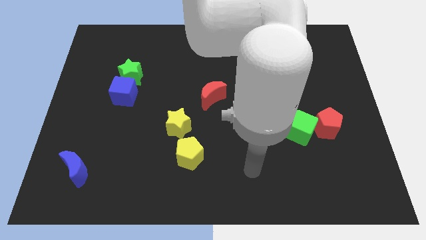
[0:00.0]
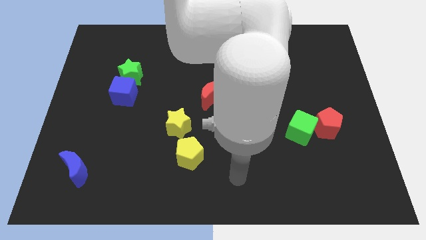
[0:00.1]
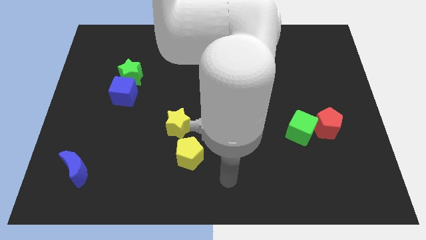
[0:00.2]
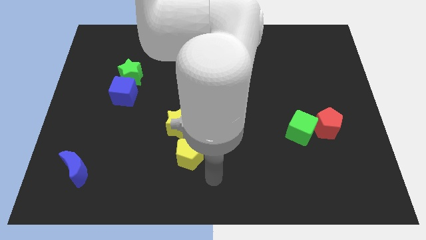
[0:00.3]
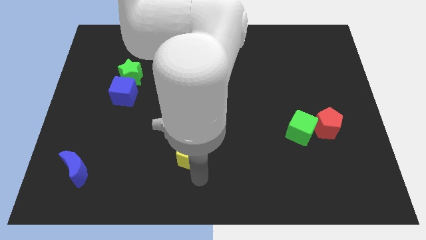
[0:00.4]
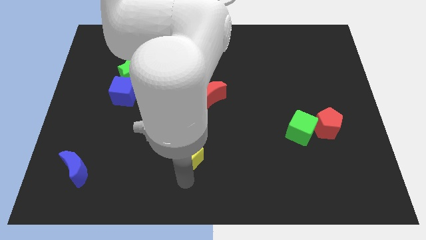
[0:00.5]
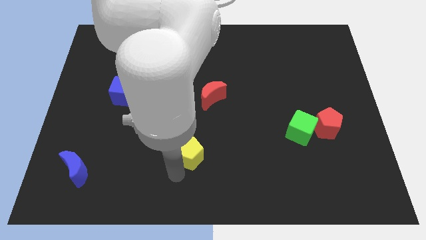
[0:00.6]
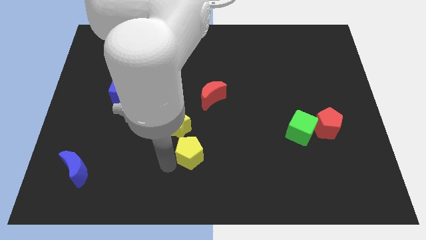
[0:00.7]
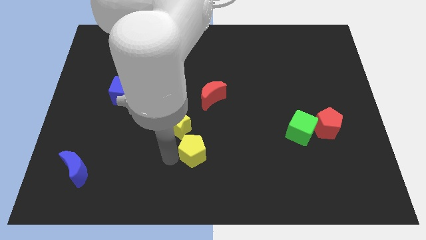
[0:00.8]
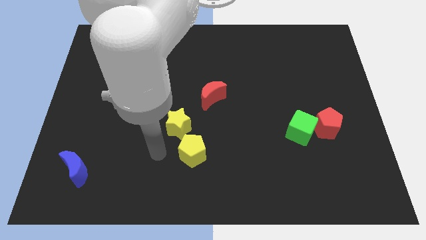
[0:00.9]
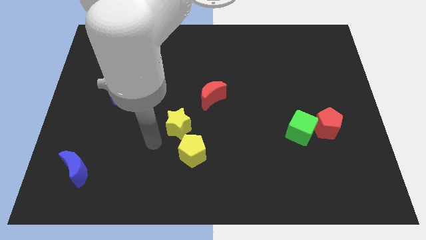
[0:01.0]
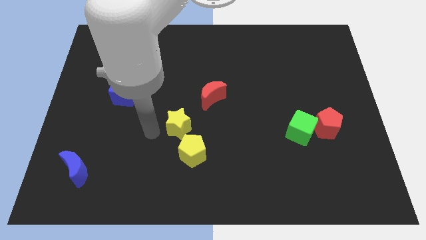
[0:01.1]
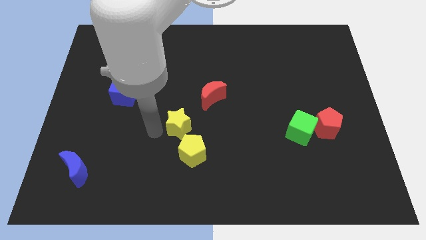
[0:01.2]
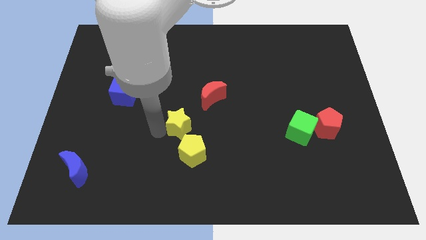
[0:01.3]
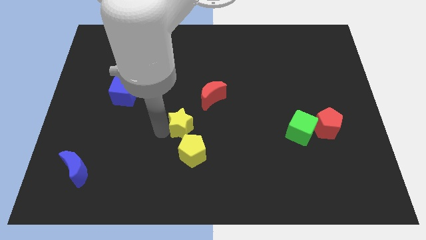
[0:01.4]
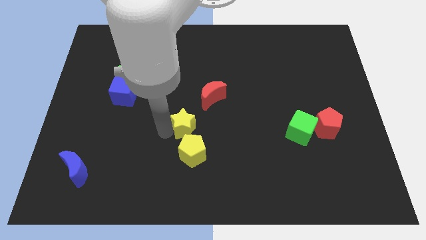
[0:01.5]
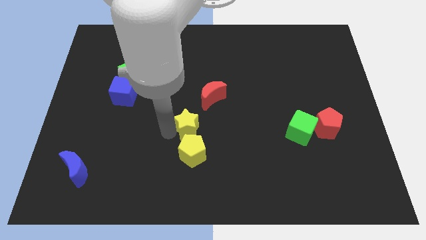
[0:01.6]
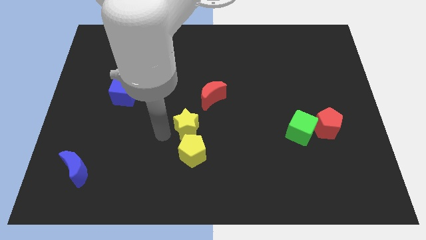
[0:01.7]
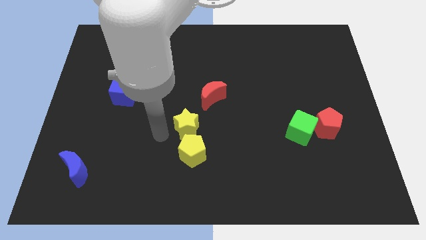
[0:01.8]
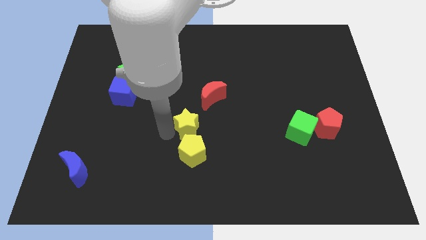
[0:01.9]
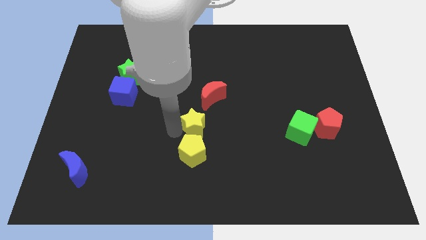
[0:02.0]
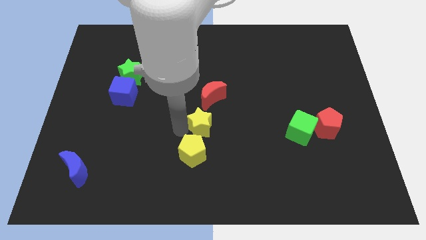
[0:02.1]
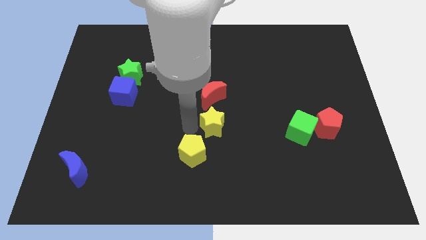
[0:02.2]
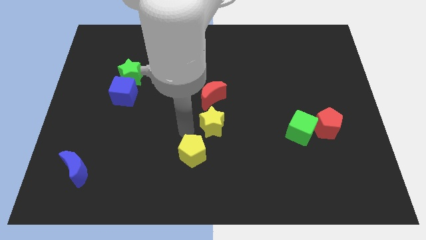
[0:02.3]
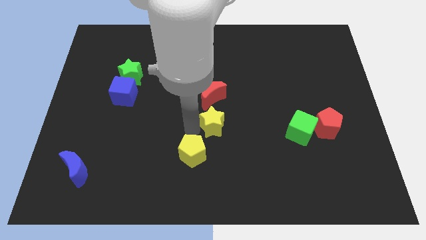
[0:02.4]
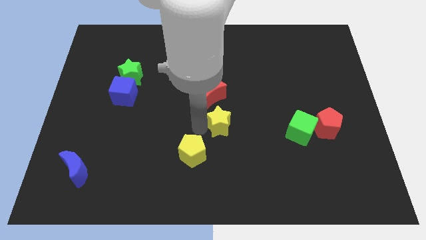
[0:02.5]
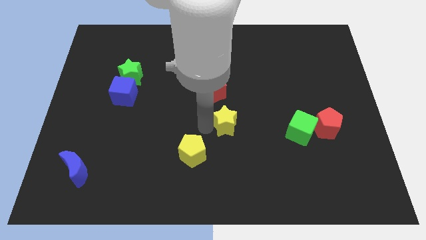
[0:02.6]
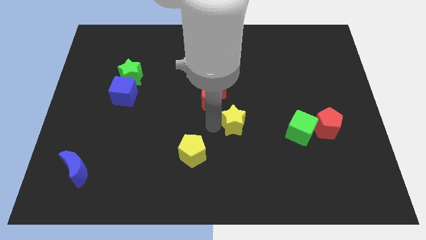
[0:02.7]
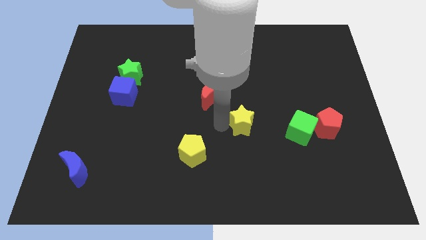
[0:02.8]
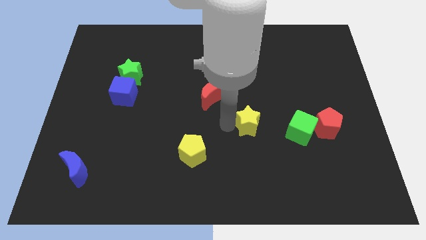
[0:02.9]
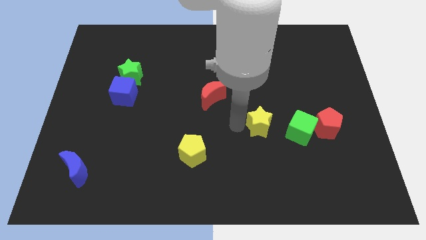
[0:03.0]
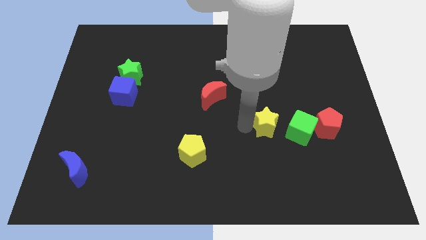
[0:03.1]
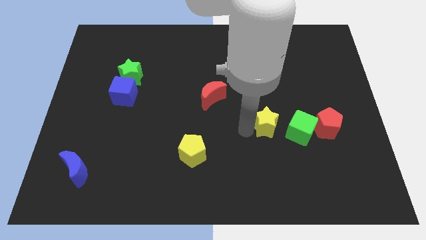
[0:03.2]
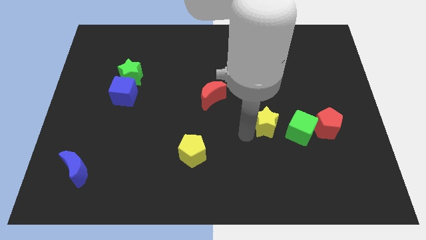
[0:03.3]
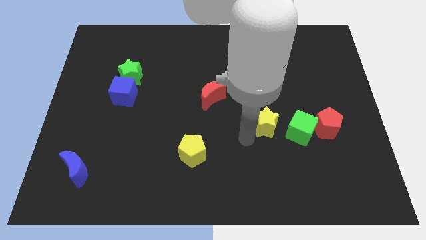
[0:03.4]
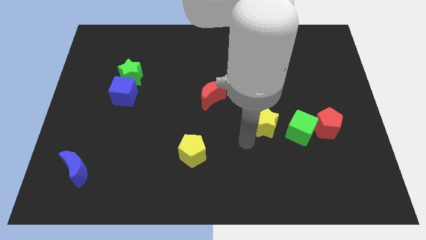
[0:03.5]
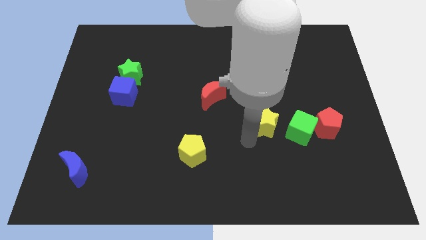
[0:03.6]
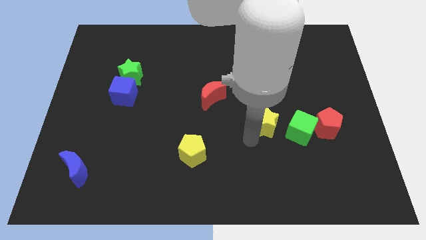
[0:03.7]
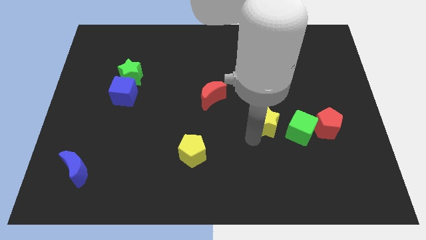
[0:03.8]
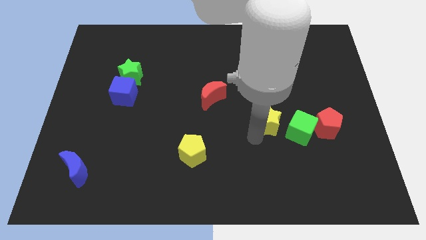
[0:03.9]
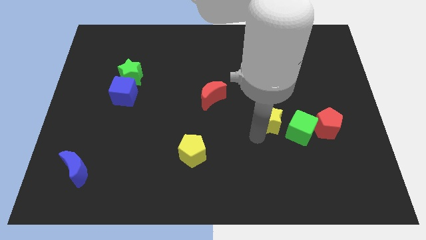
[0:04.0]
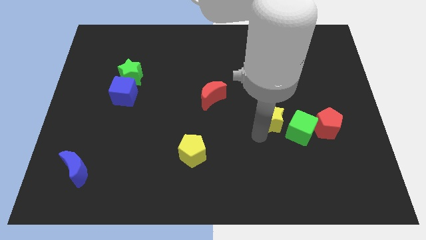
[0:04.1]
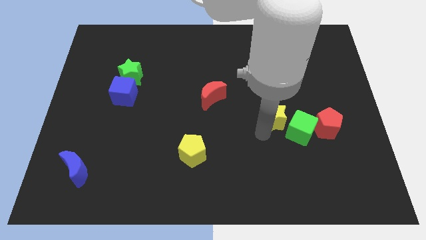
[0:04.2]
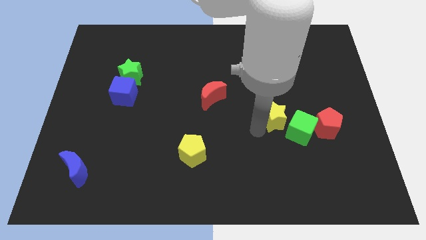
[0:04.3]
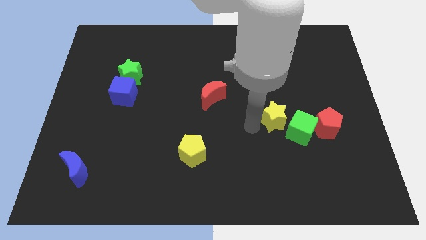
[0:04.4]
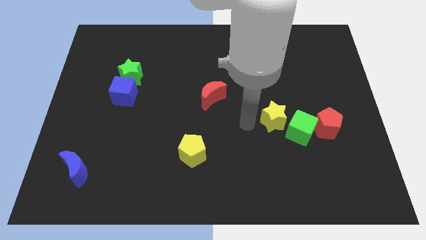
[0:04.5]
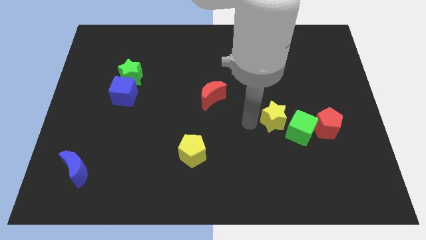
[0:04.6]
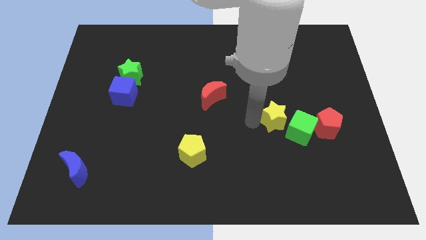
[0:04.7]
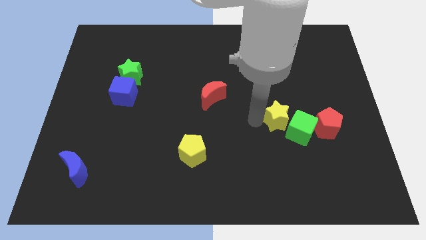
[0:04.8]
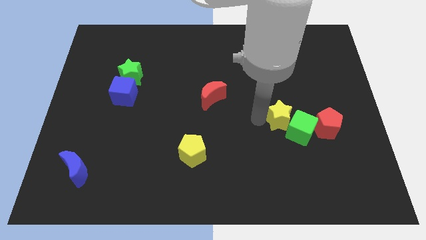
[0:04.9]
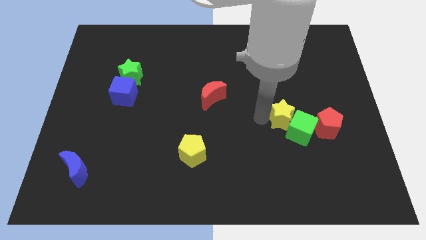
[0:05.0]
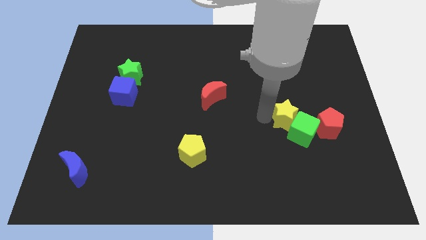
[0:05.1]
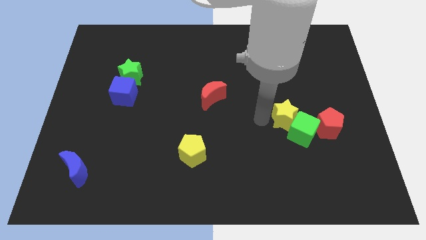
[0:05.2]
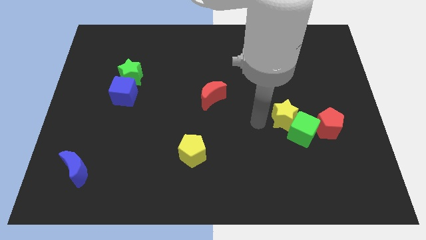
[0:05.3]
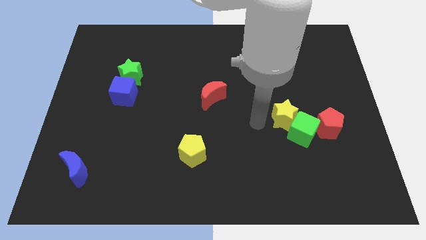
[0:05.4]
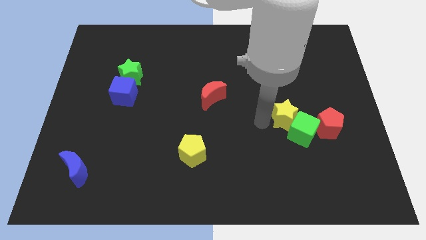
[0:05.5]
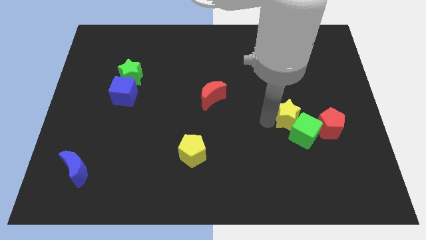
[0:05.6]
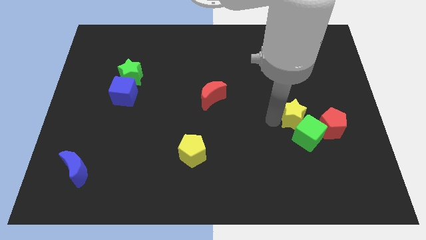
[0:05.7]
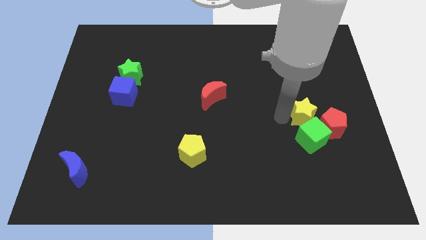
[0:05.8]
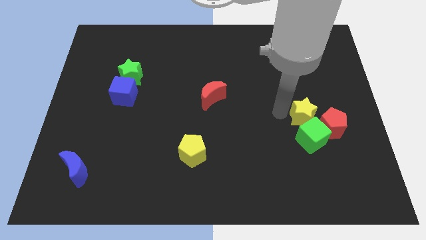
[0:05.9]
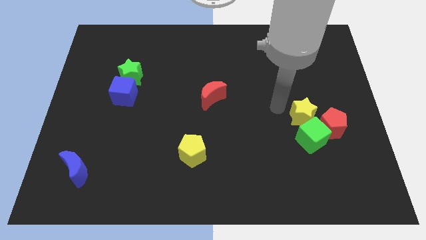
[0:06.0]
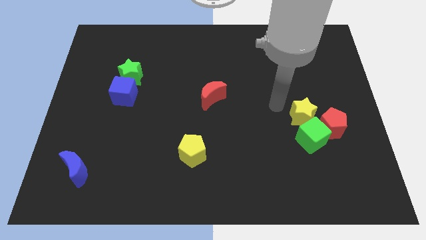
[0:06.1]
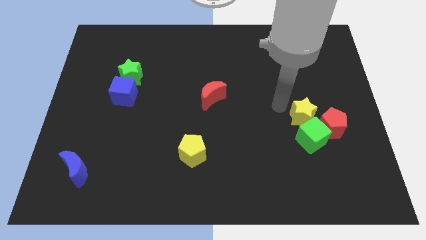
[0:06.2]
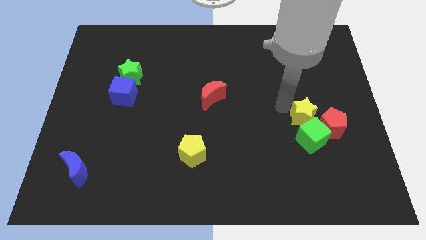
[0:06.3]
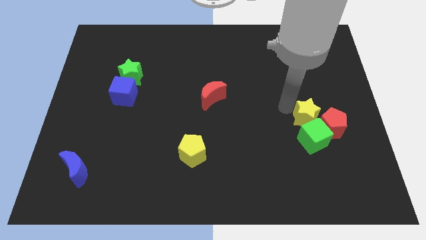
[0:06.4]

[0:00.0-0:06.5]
put the yellow star towards the red pentagon

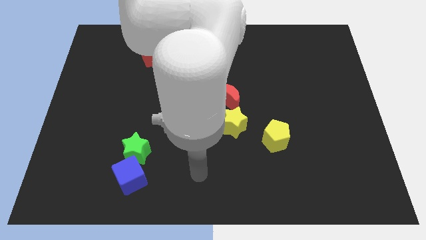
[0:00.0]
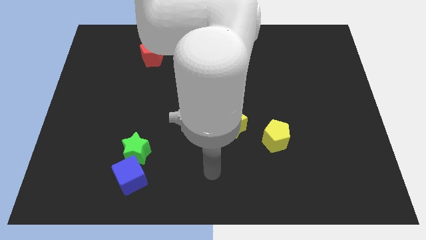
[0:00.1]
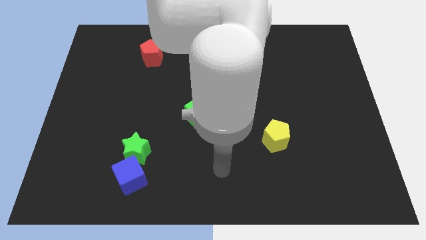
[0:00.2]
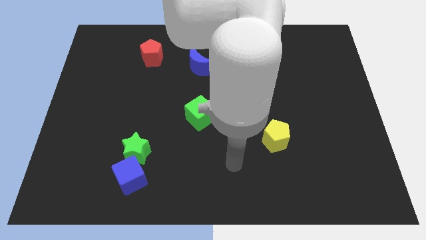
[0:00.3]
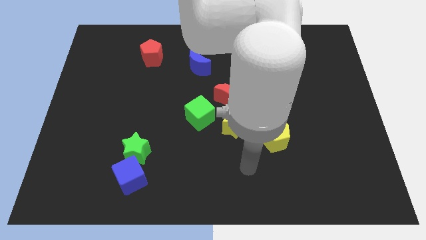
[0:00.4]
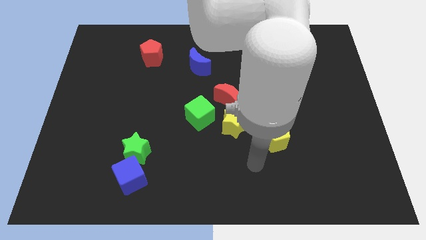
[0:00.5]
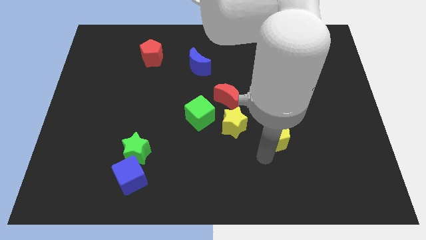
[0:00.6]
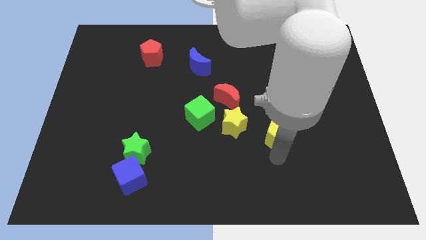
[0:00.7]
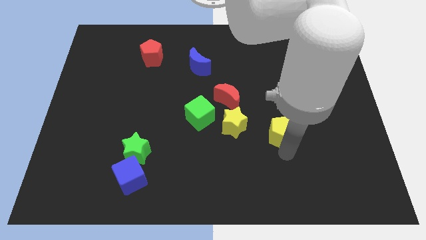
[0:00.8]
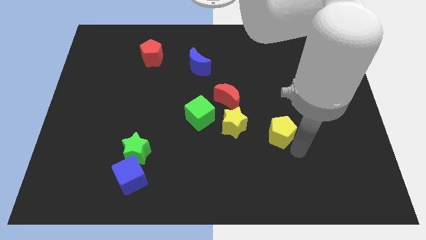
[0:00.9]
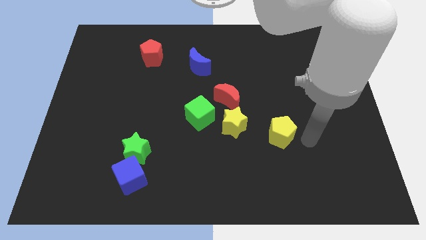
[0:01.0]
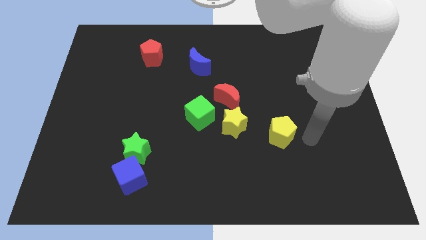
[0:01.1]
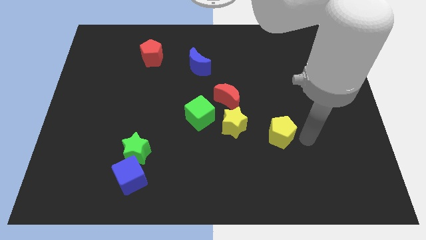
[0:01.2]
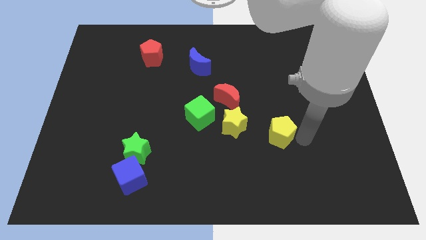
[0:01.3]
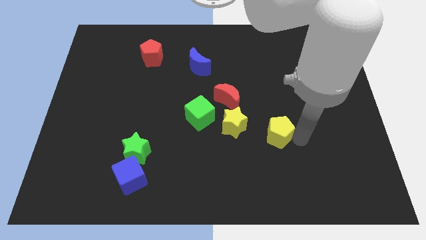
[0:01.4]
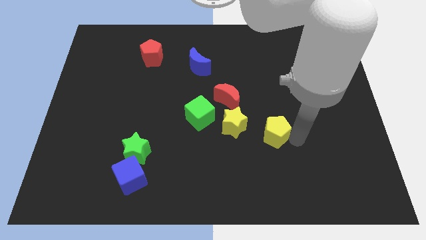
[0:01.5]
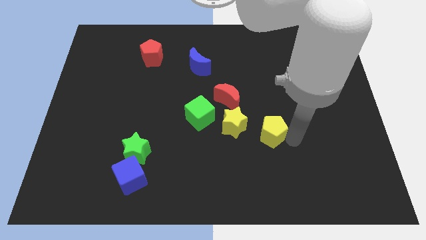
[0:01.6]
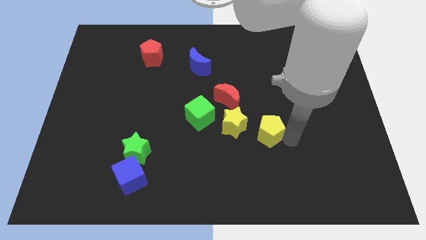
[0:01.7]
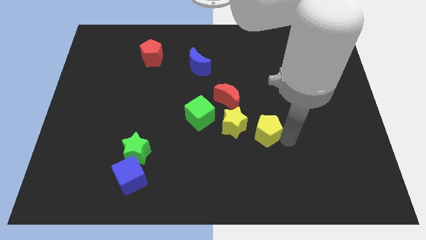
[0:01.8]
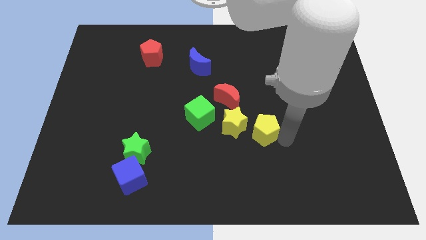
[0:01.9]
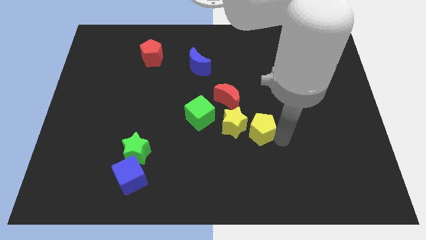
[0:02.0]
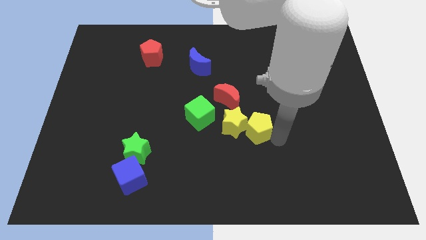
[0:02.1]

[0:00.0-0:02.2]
push the yellow pentagon close to the yellow star
